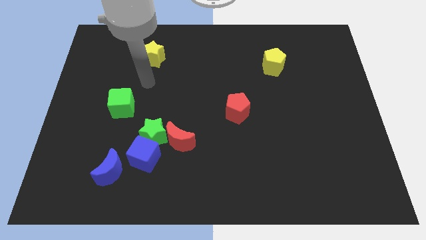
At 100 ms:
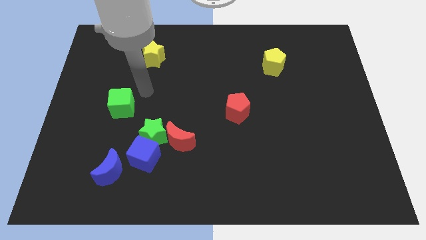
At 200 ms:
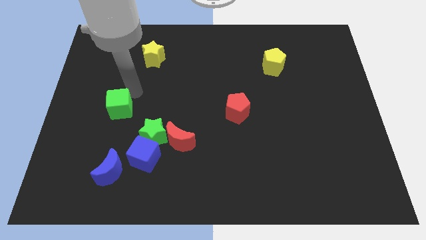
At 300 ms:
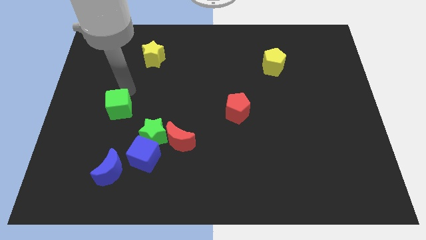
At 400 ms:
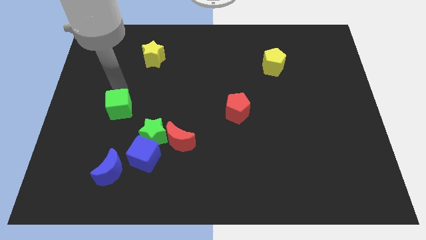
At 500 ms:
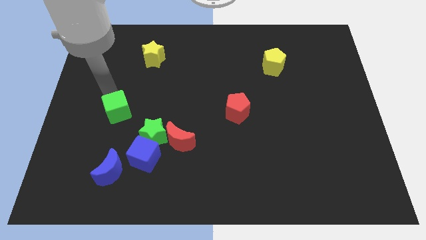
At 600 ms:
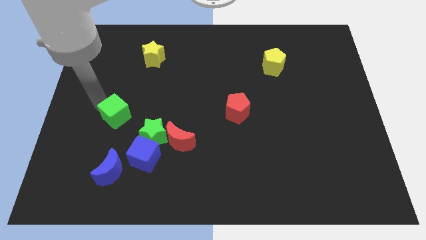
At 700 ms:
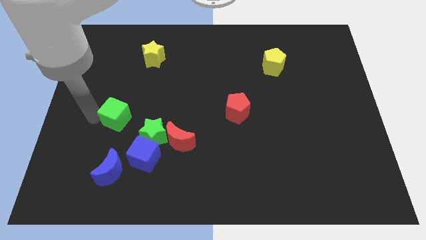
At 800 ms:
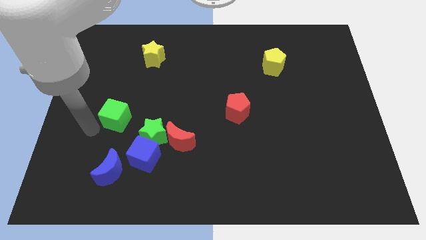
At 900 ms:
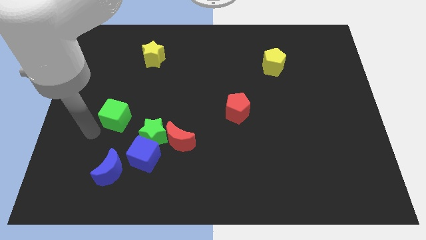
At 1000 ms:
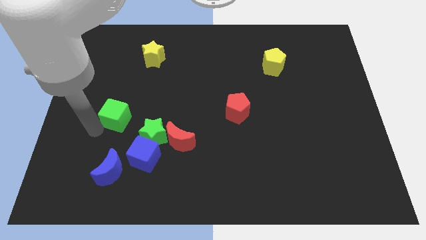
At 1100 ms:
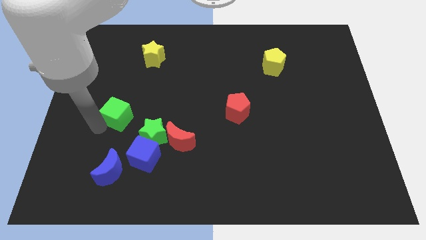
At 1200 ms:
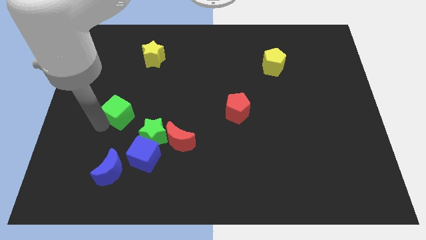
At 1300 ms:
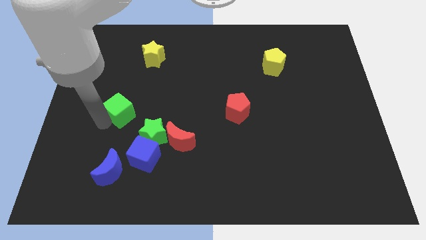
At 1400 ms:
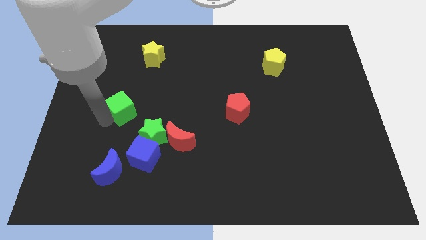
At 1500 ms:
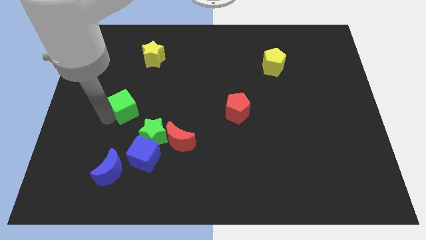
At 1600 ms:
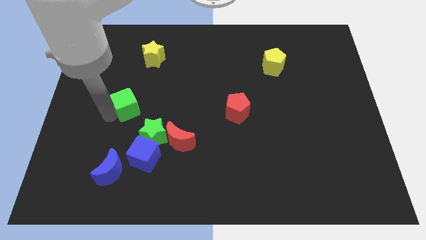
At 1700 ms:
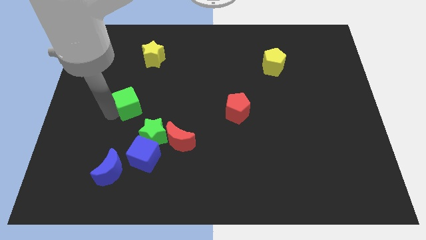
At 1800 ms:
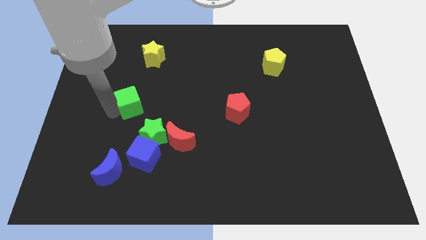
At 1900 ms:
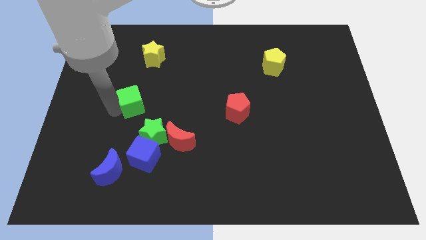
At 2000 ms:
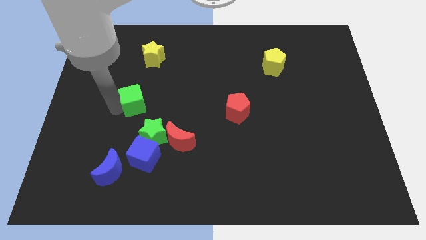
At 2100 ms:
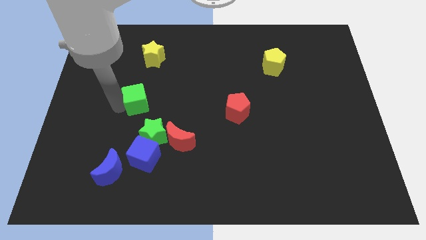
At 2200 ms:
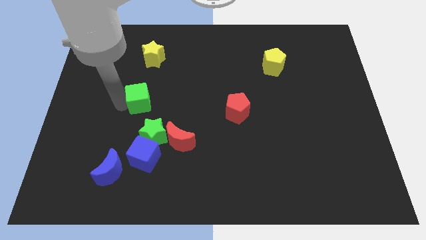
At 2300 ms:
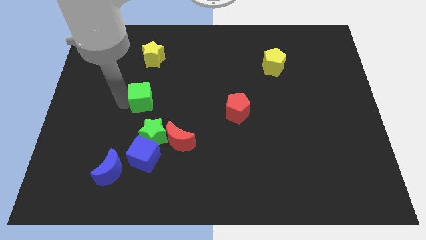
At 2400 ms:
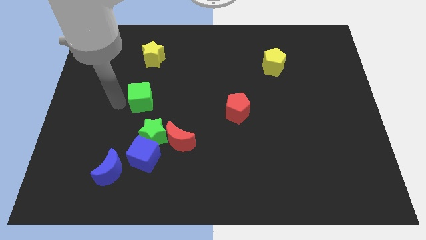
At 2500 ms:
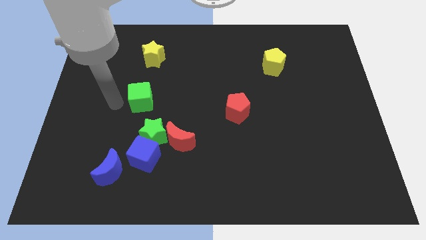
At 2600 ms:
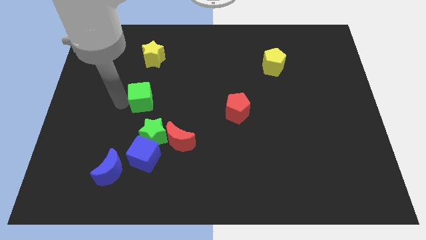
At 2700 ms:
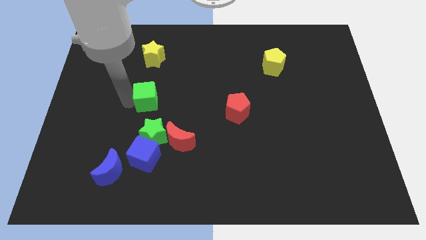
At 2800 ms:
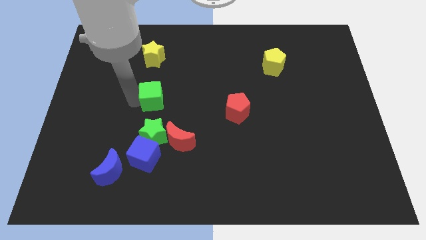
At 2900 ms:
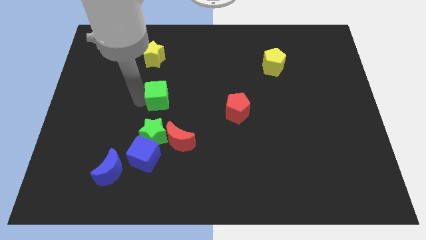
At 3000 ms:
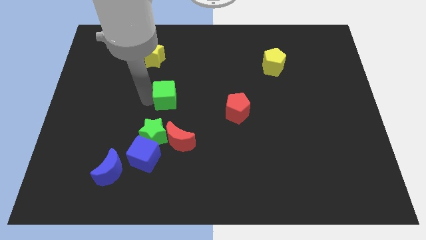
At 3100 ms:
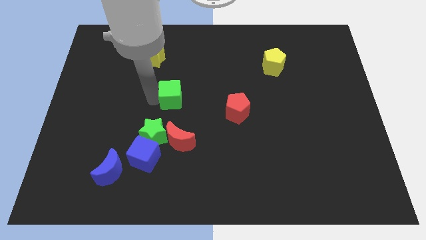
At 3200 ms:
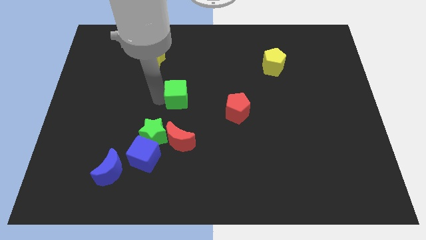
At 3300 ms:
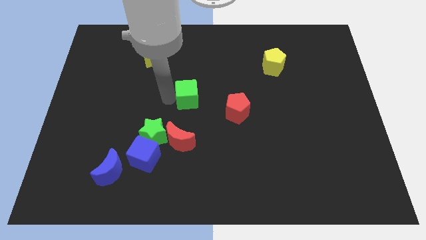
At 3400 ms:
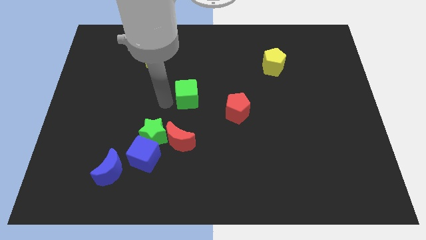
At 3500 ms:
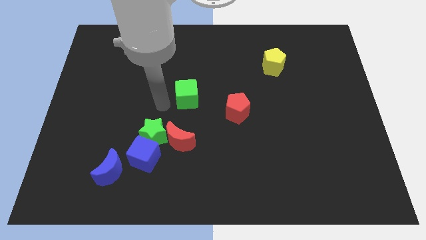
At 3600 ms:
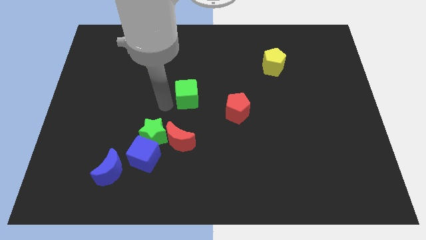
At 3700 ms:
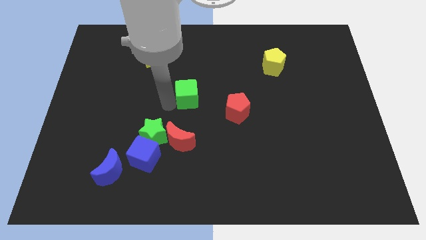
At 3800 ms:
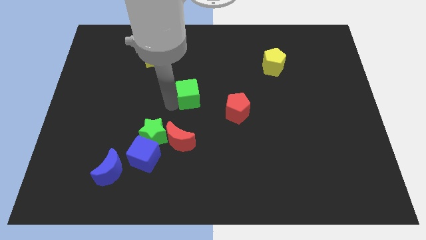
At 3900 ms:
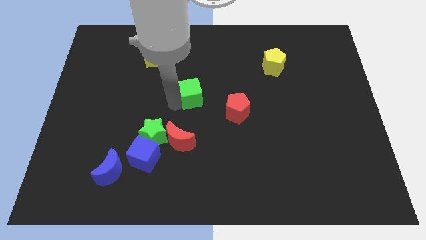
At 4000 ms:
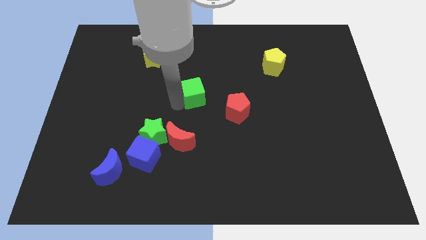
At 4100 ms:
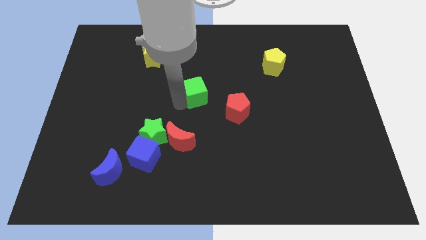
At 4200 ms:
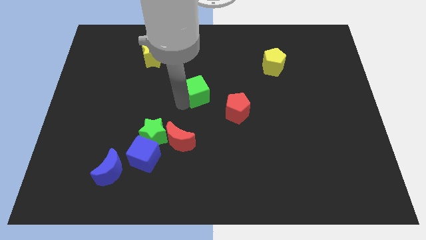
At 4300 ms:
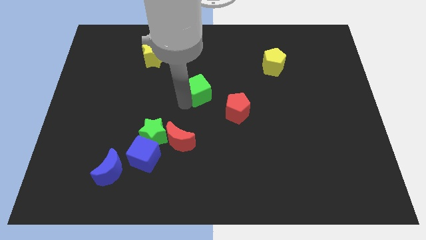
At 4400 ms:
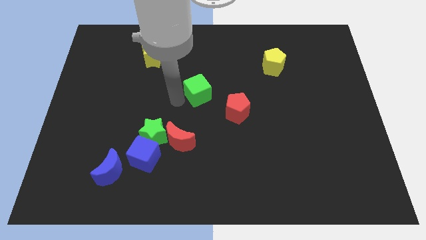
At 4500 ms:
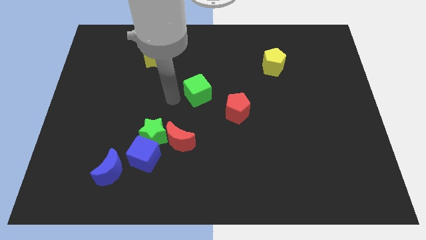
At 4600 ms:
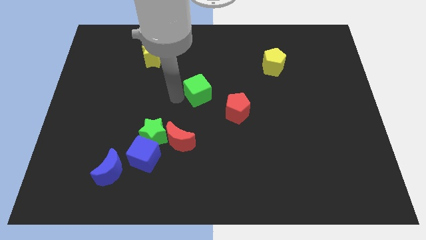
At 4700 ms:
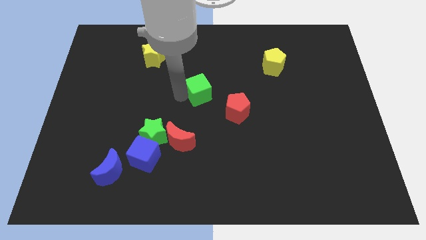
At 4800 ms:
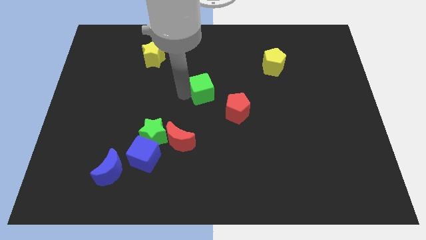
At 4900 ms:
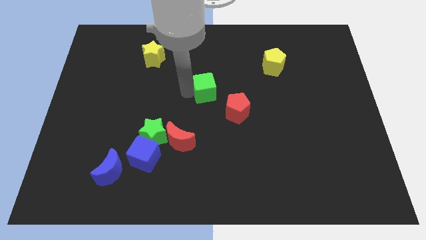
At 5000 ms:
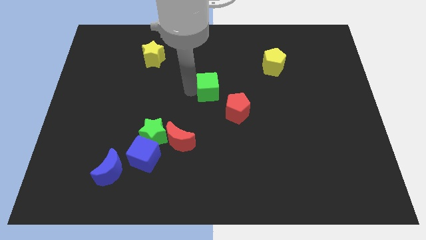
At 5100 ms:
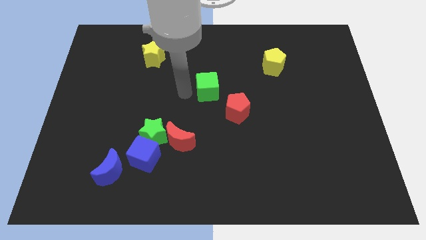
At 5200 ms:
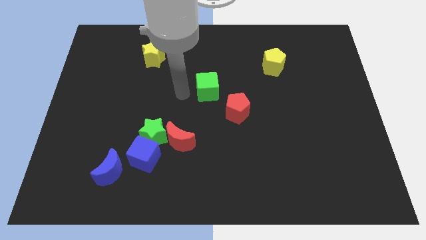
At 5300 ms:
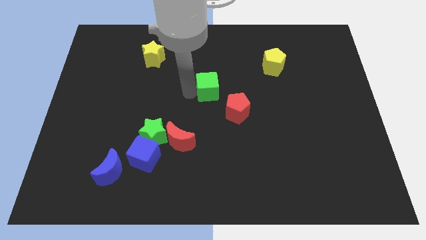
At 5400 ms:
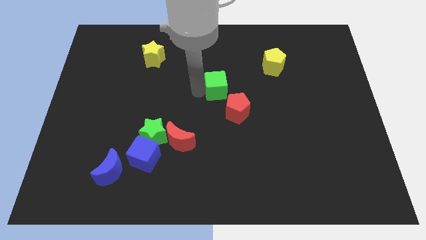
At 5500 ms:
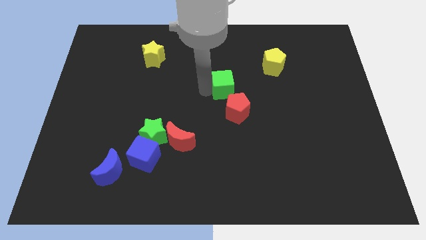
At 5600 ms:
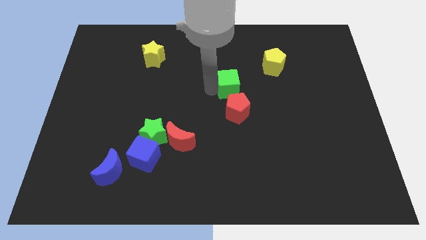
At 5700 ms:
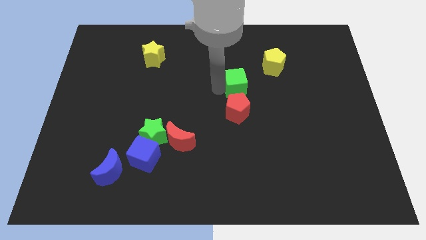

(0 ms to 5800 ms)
push the green cube to the bottom left of the yellow pentagon

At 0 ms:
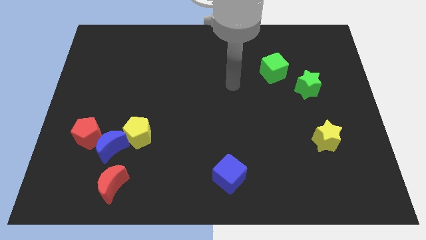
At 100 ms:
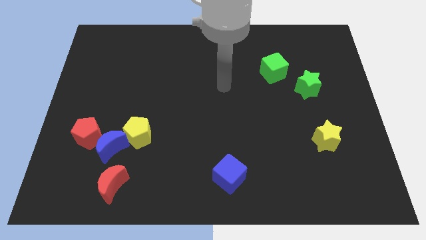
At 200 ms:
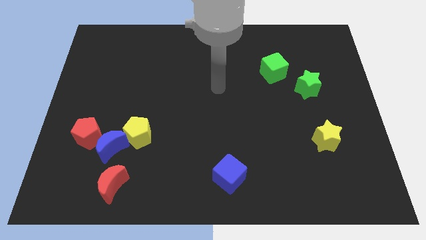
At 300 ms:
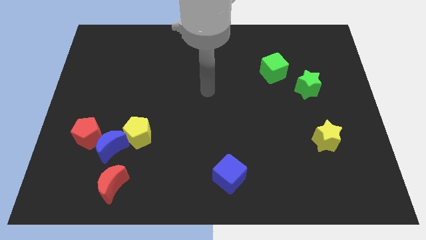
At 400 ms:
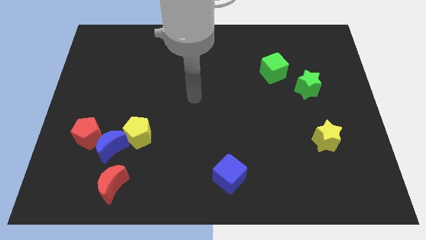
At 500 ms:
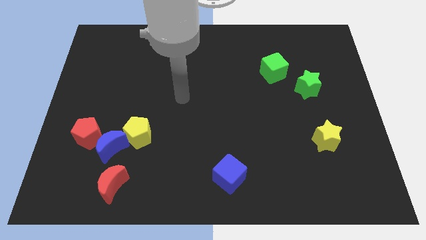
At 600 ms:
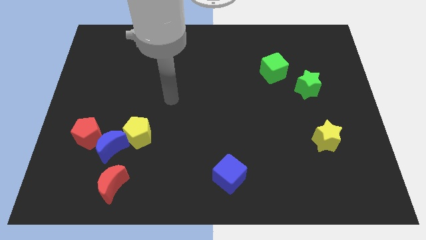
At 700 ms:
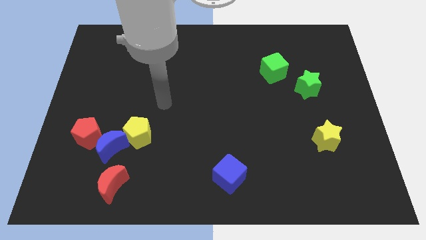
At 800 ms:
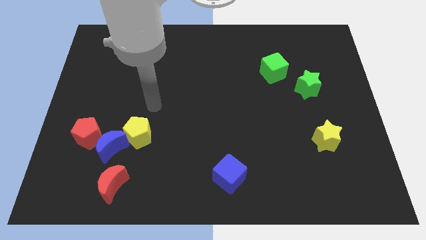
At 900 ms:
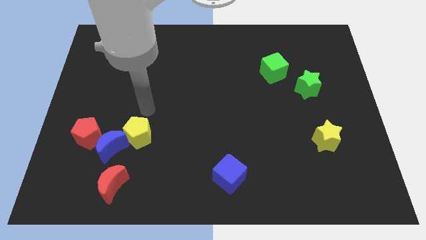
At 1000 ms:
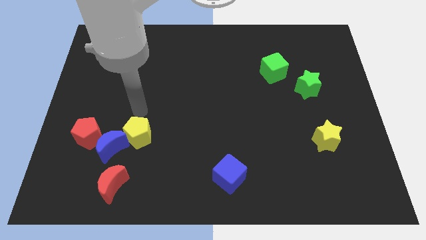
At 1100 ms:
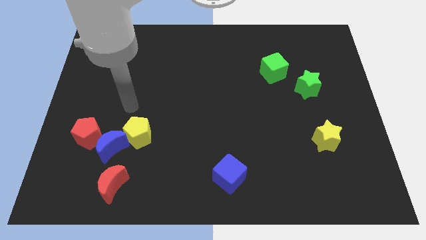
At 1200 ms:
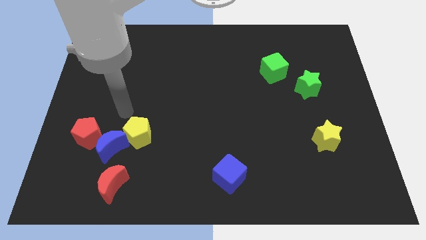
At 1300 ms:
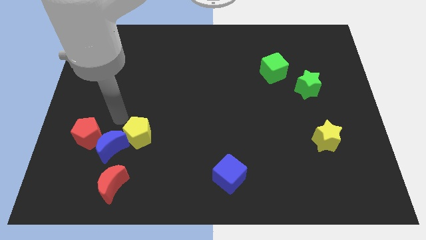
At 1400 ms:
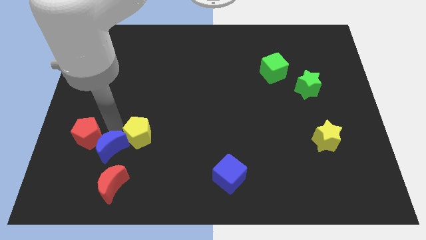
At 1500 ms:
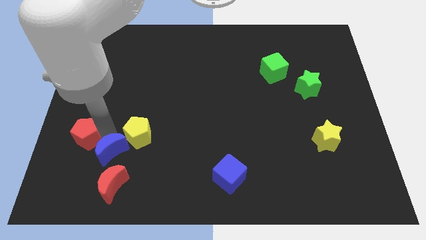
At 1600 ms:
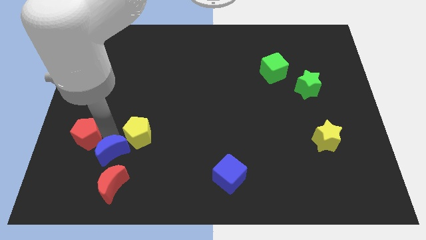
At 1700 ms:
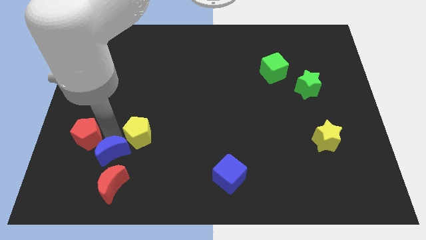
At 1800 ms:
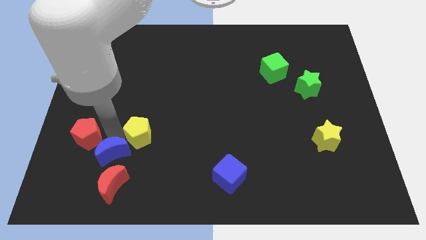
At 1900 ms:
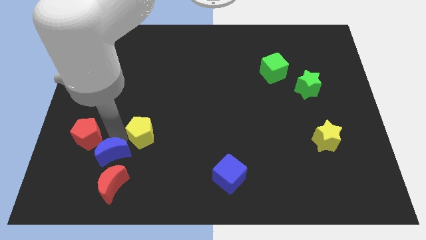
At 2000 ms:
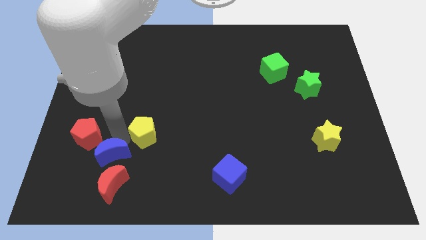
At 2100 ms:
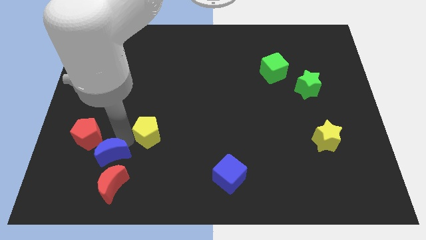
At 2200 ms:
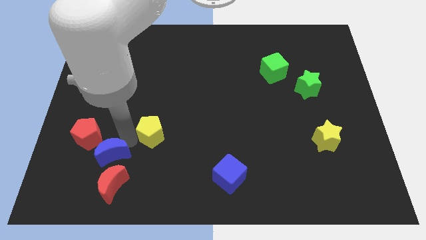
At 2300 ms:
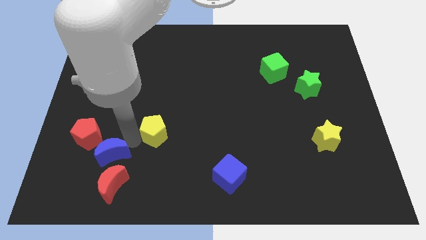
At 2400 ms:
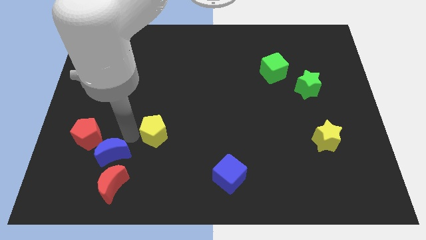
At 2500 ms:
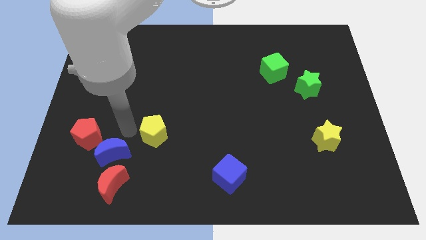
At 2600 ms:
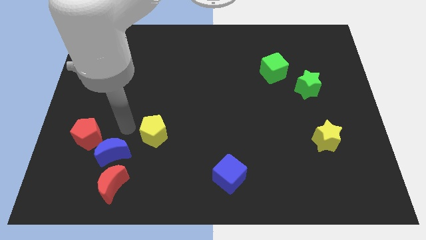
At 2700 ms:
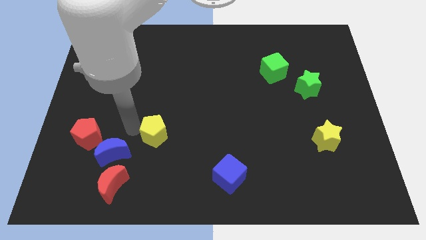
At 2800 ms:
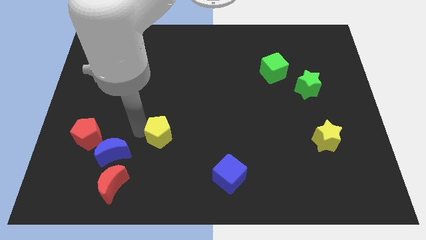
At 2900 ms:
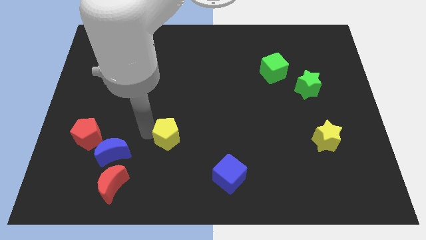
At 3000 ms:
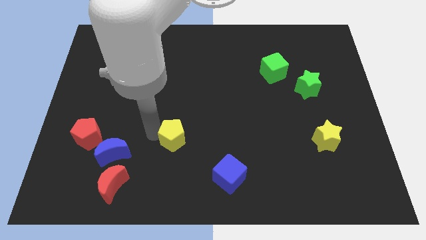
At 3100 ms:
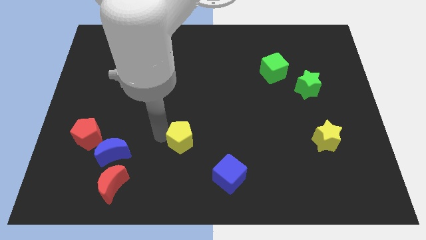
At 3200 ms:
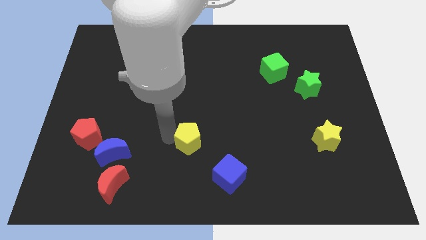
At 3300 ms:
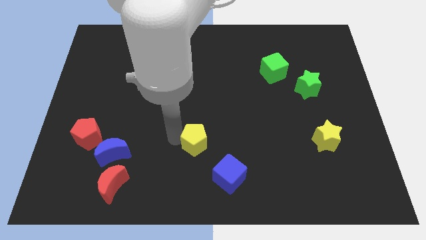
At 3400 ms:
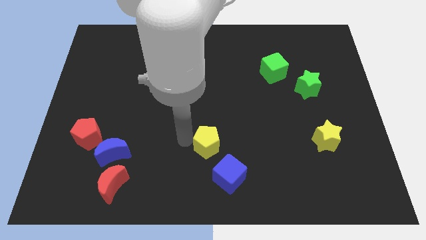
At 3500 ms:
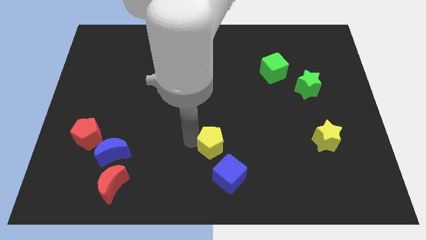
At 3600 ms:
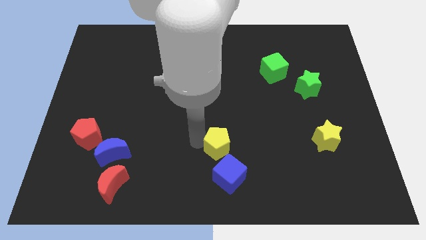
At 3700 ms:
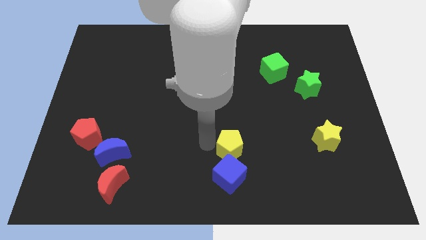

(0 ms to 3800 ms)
put the yellow pentagon to the top right side of the blue cube
